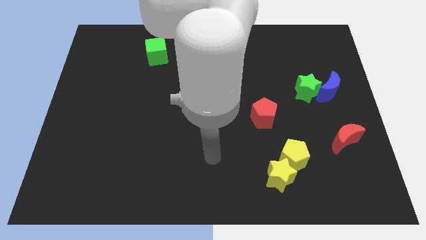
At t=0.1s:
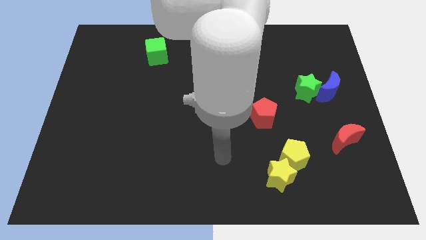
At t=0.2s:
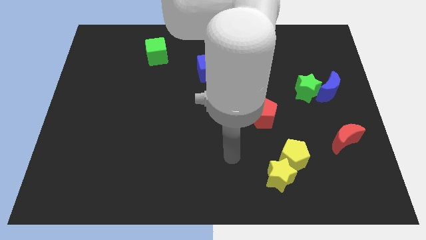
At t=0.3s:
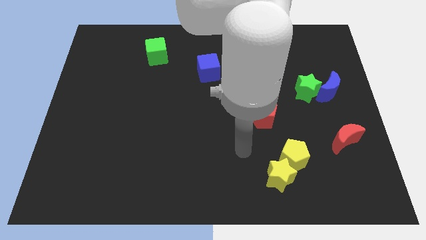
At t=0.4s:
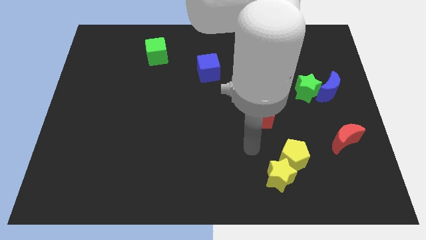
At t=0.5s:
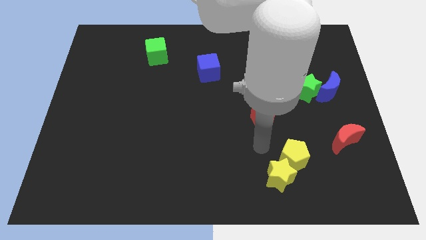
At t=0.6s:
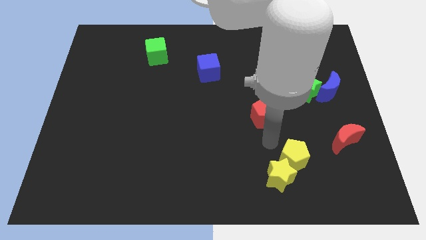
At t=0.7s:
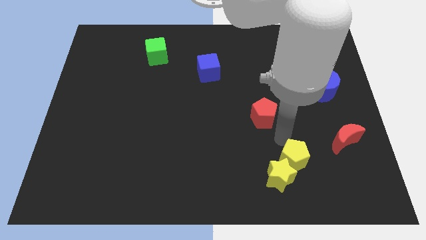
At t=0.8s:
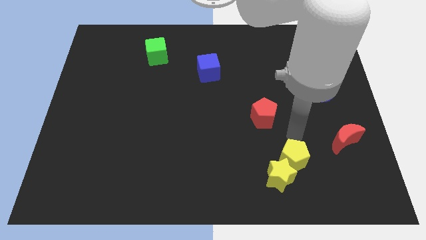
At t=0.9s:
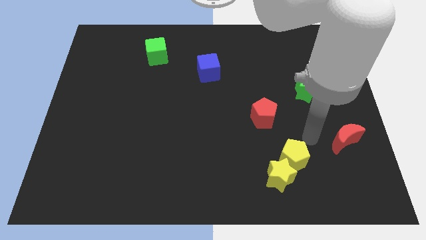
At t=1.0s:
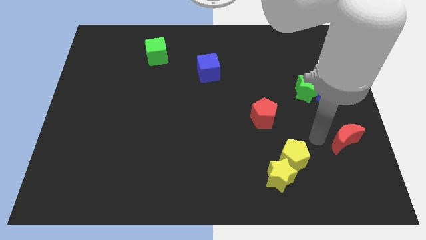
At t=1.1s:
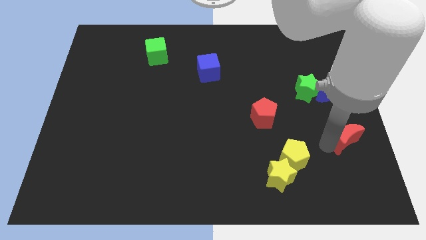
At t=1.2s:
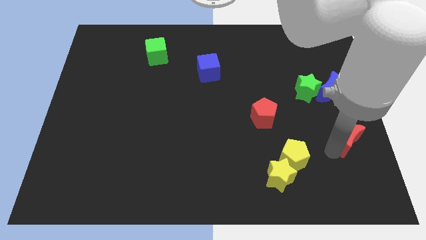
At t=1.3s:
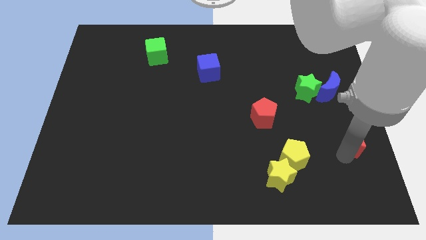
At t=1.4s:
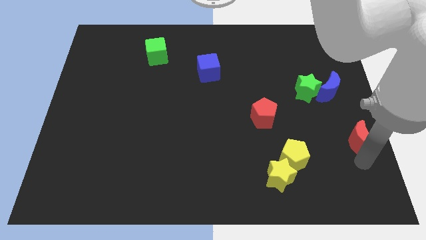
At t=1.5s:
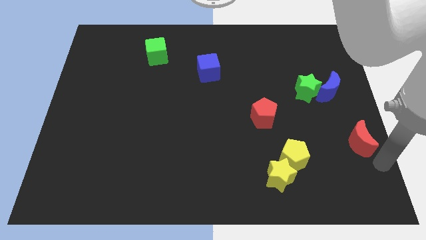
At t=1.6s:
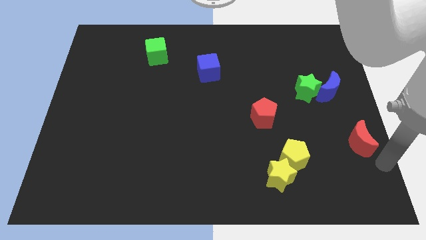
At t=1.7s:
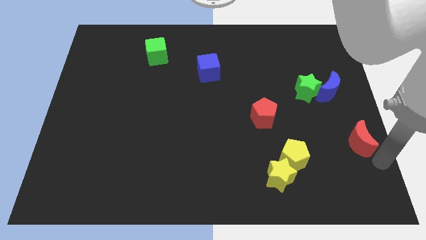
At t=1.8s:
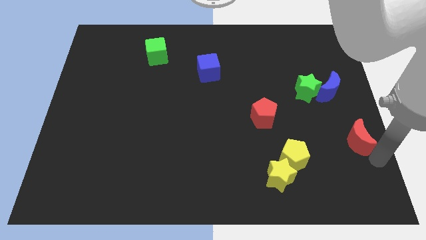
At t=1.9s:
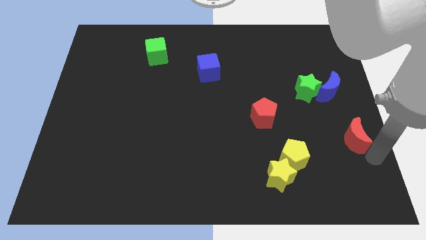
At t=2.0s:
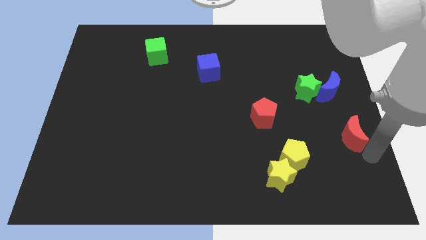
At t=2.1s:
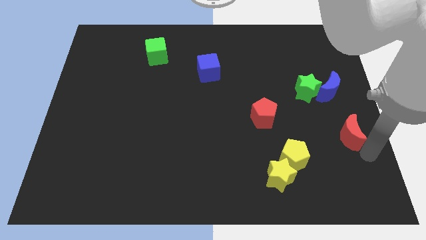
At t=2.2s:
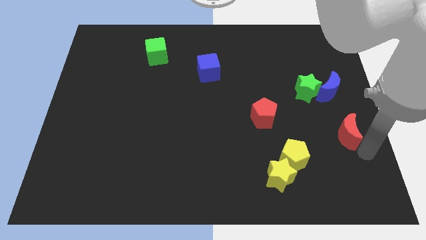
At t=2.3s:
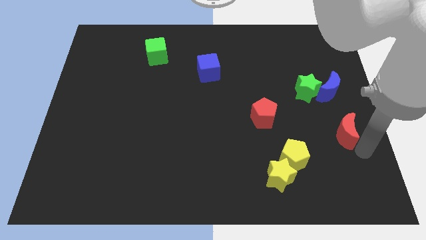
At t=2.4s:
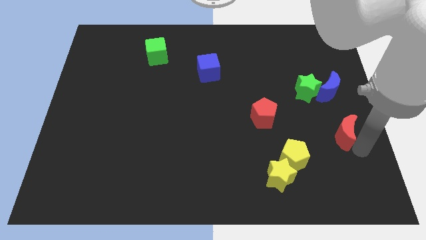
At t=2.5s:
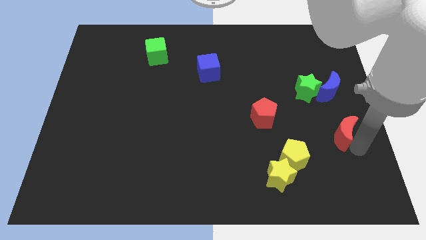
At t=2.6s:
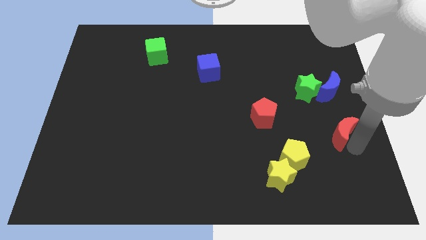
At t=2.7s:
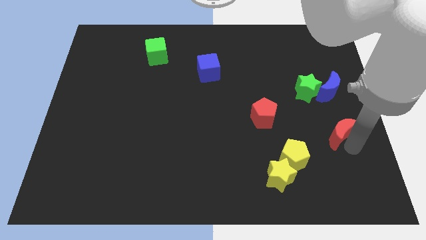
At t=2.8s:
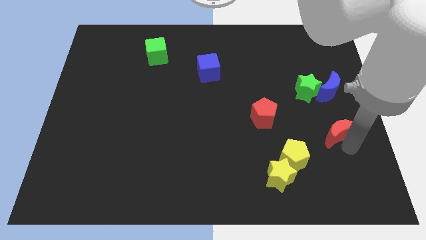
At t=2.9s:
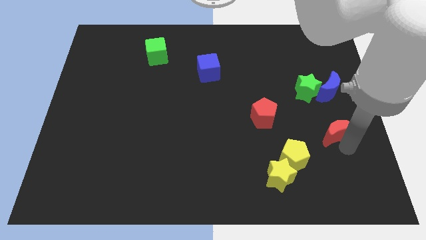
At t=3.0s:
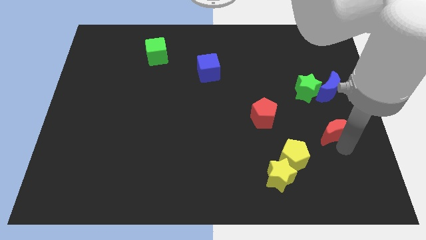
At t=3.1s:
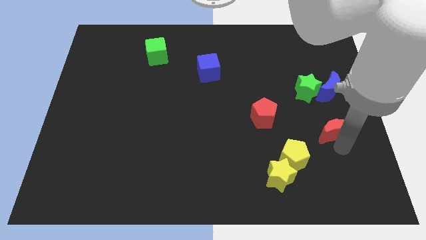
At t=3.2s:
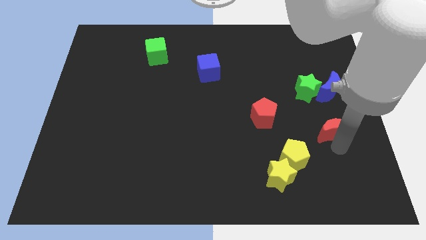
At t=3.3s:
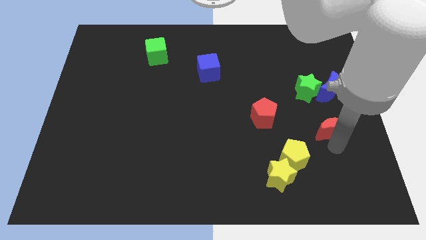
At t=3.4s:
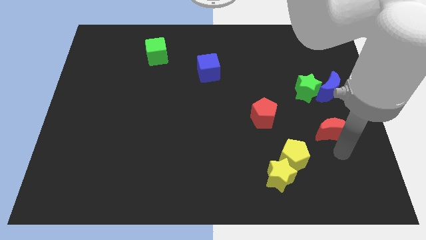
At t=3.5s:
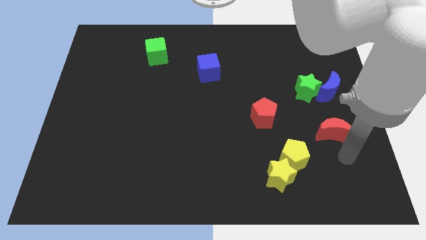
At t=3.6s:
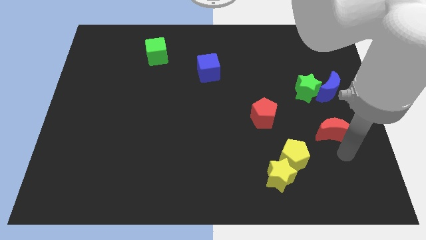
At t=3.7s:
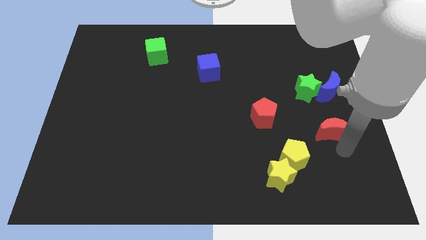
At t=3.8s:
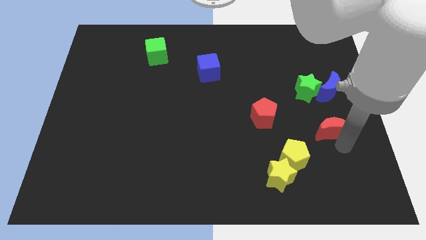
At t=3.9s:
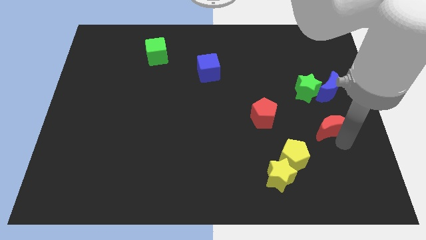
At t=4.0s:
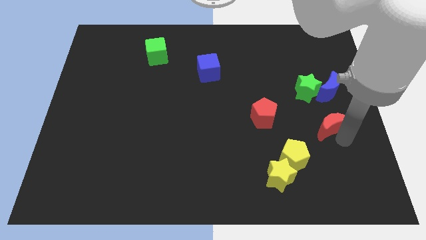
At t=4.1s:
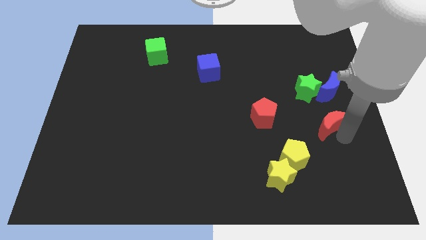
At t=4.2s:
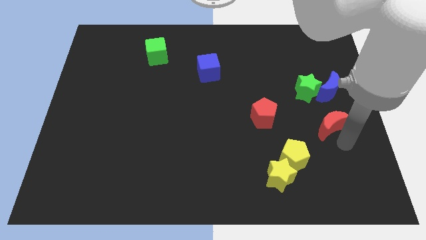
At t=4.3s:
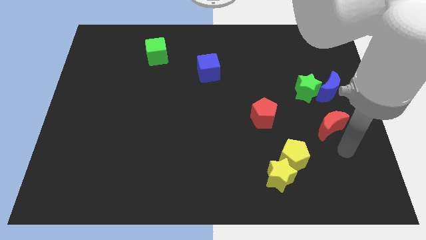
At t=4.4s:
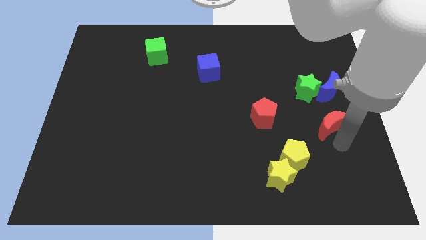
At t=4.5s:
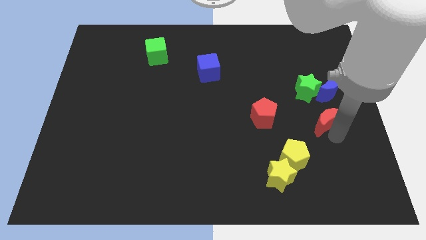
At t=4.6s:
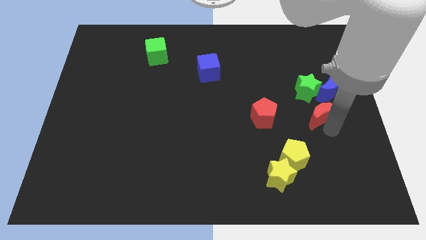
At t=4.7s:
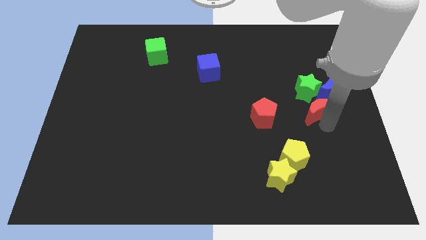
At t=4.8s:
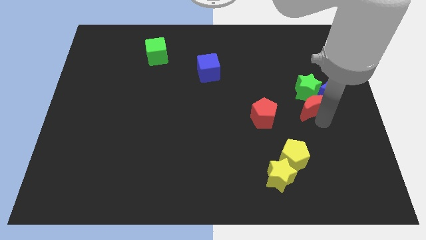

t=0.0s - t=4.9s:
slide the red moon close to the green star

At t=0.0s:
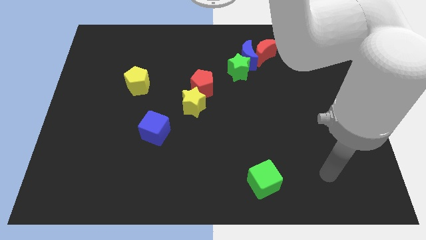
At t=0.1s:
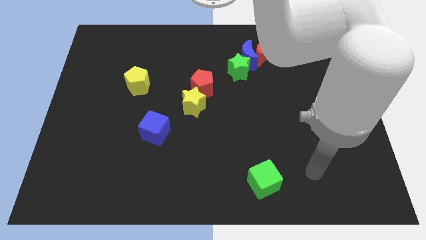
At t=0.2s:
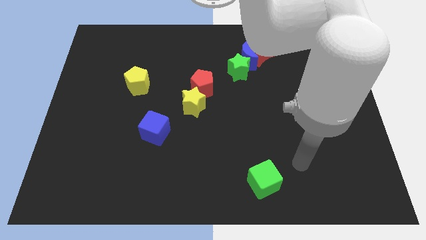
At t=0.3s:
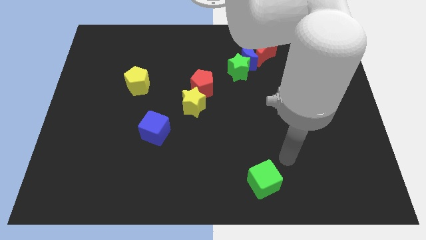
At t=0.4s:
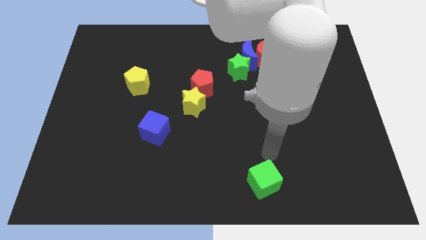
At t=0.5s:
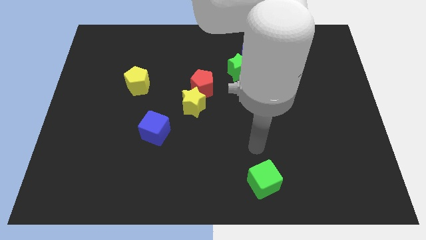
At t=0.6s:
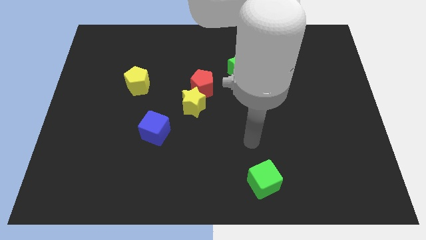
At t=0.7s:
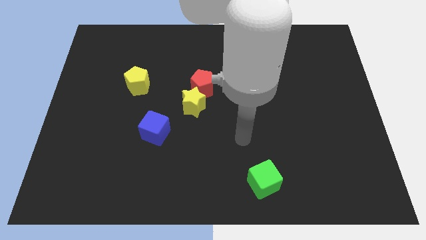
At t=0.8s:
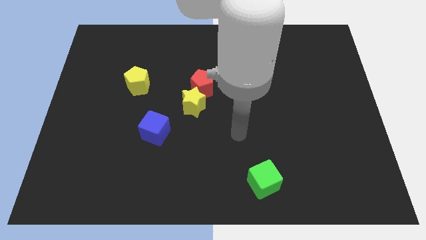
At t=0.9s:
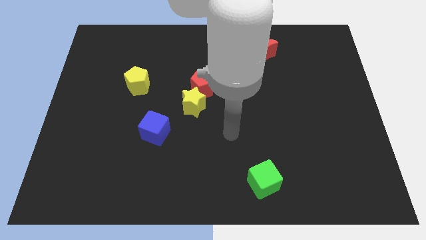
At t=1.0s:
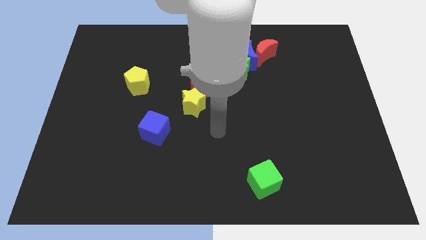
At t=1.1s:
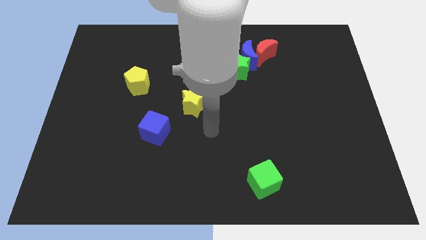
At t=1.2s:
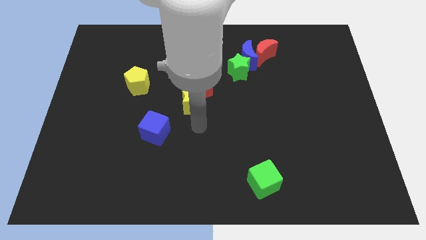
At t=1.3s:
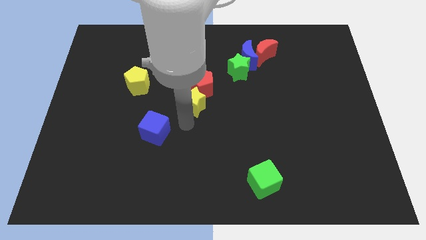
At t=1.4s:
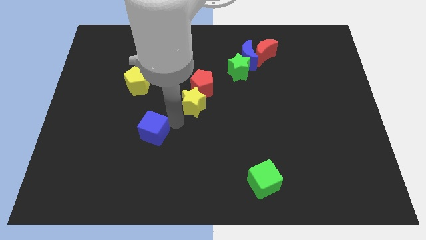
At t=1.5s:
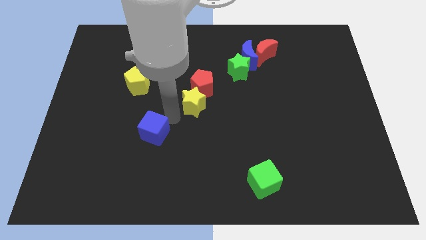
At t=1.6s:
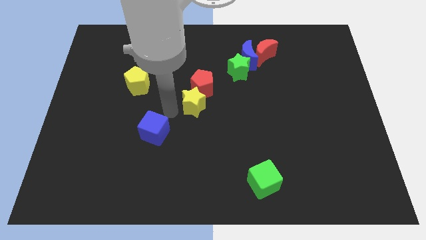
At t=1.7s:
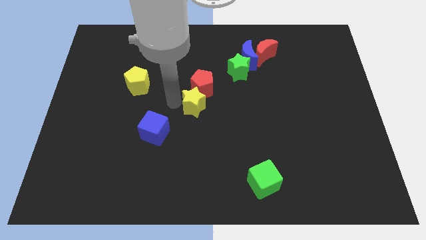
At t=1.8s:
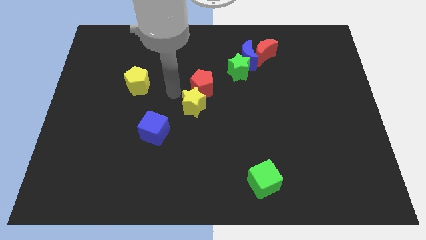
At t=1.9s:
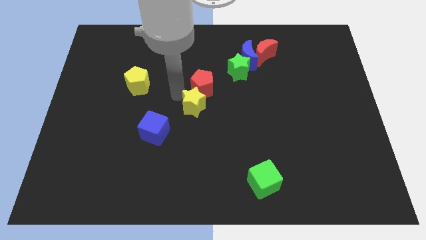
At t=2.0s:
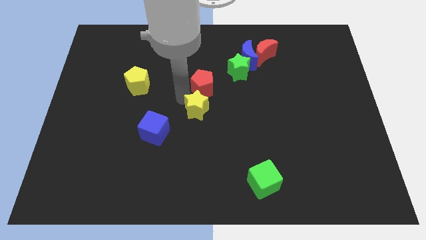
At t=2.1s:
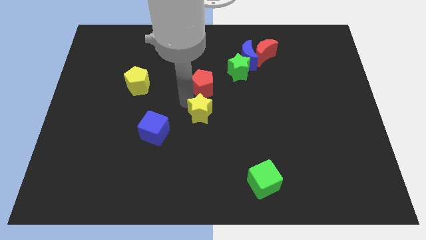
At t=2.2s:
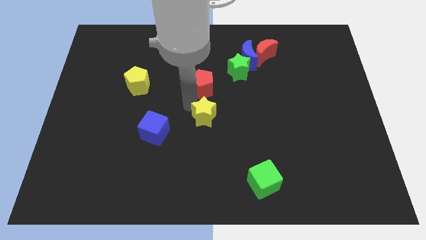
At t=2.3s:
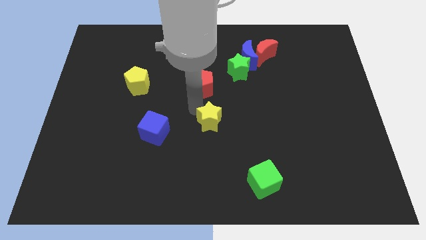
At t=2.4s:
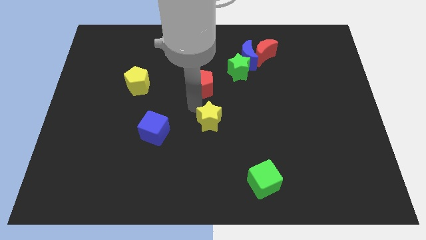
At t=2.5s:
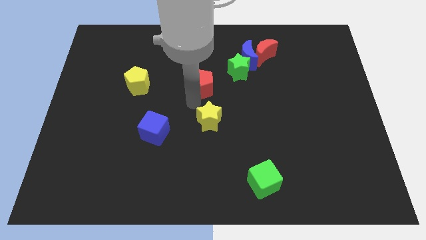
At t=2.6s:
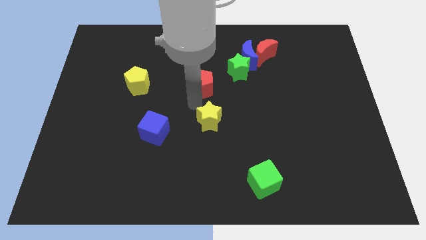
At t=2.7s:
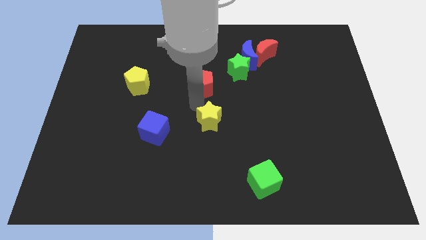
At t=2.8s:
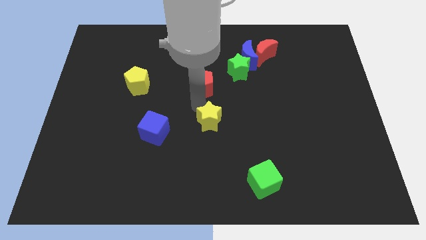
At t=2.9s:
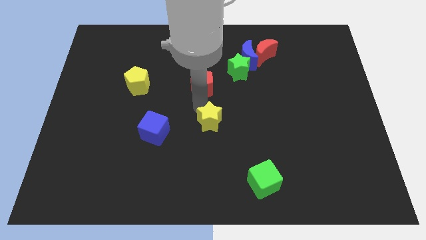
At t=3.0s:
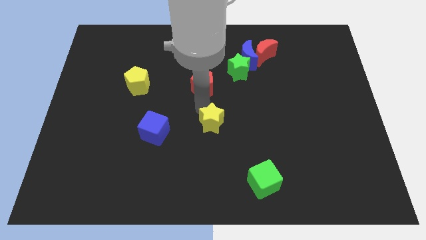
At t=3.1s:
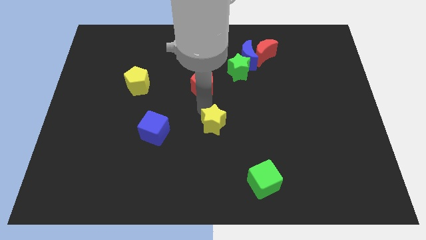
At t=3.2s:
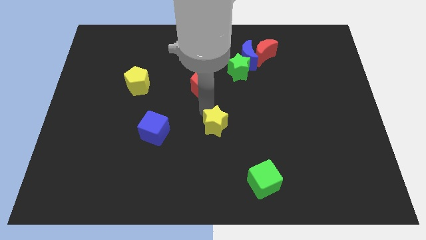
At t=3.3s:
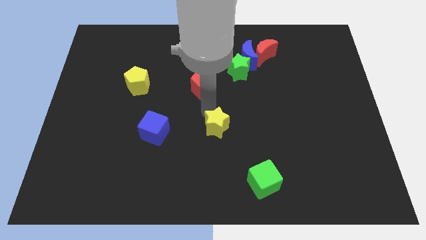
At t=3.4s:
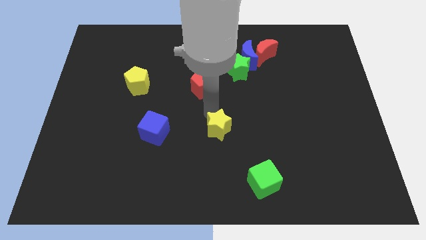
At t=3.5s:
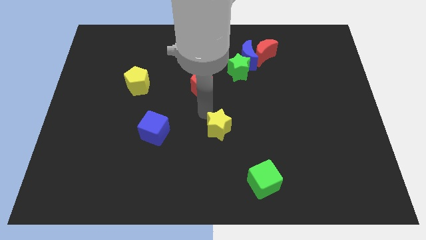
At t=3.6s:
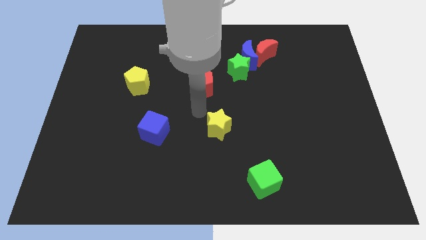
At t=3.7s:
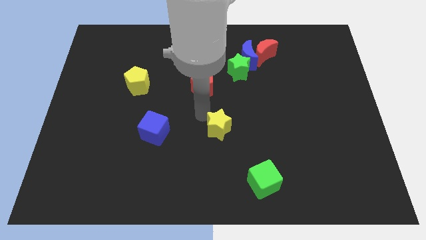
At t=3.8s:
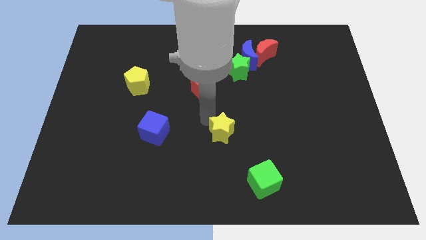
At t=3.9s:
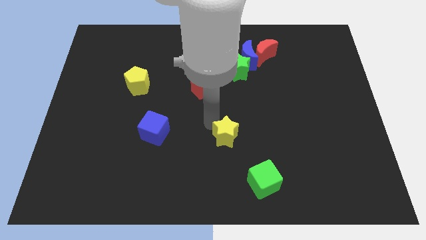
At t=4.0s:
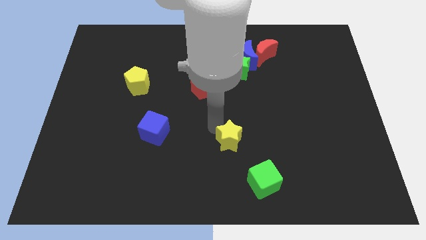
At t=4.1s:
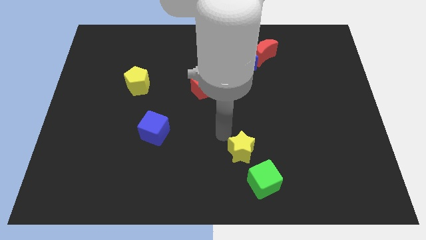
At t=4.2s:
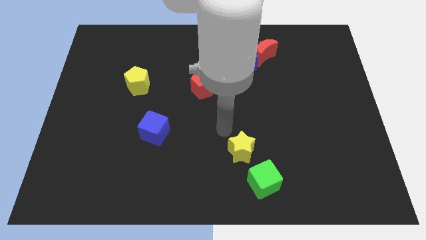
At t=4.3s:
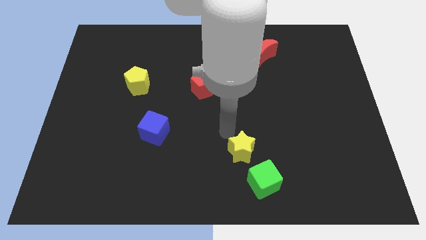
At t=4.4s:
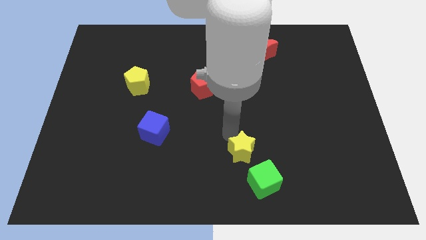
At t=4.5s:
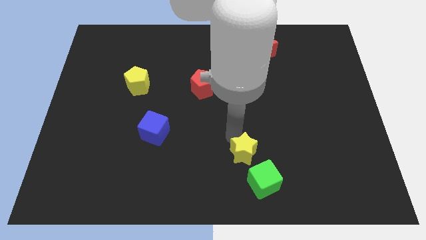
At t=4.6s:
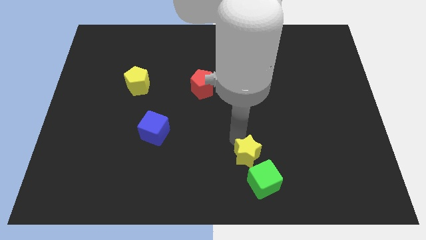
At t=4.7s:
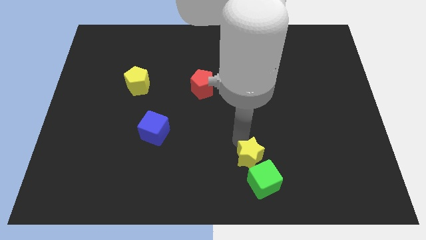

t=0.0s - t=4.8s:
slide the yellow star next to the green cube
